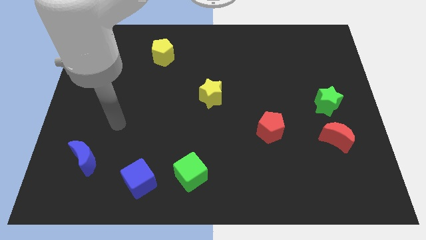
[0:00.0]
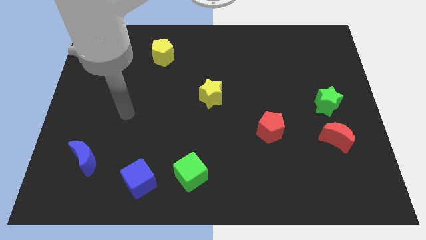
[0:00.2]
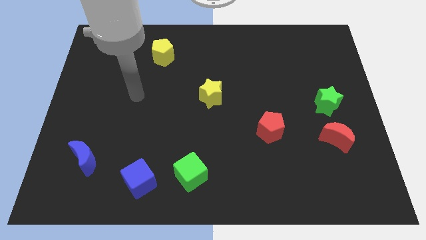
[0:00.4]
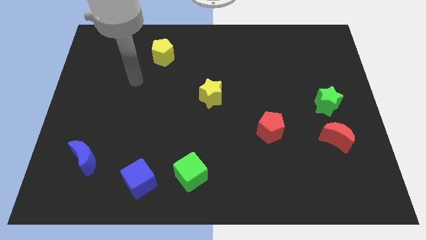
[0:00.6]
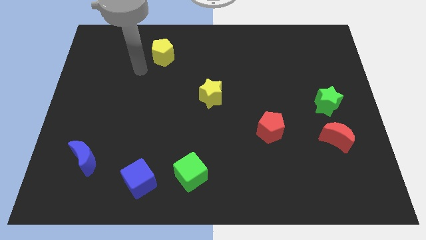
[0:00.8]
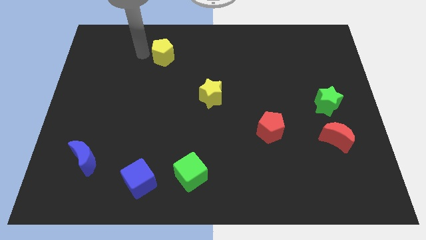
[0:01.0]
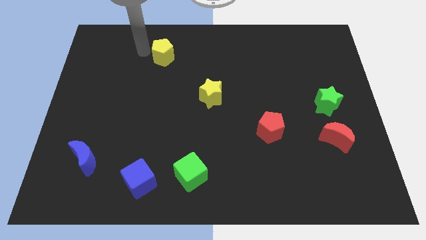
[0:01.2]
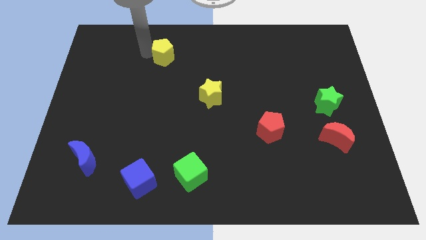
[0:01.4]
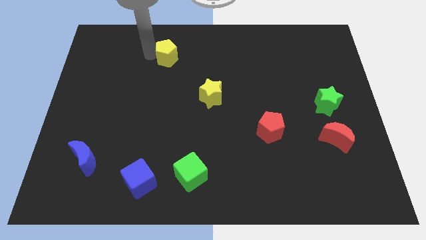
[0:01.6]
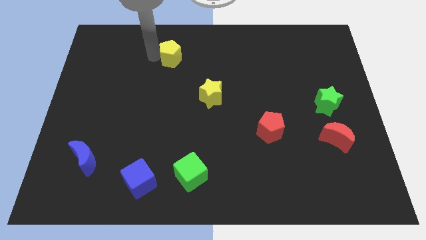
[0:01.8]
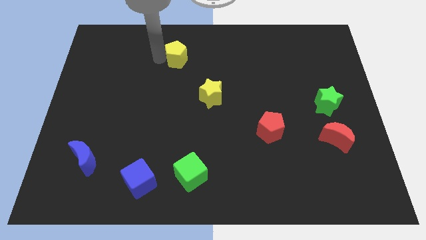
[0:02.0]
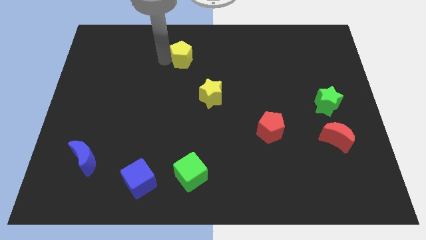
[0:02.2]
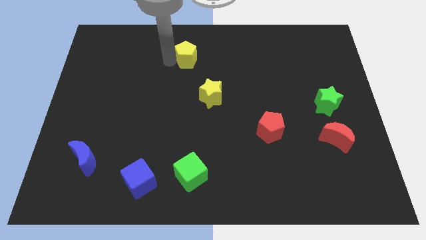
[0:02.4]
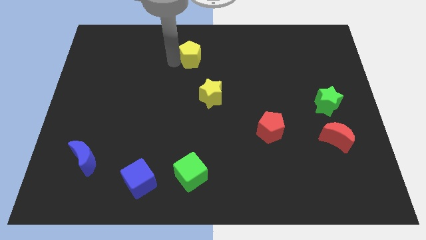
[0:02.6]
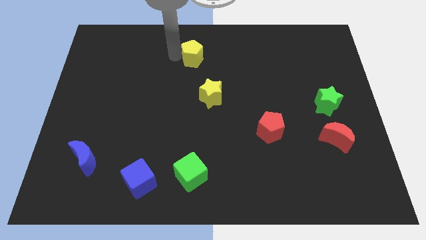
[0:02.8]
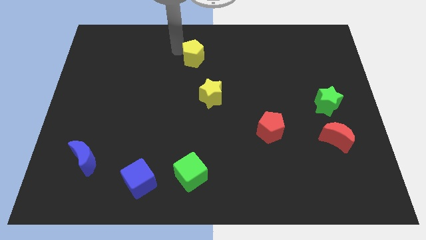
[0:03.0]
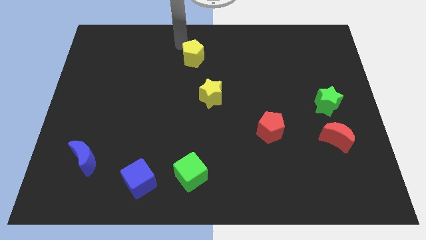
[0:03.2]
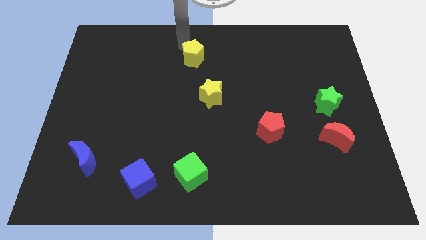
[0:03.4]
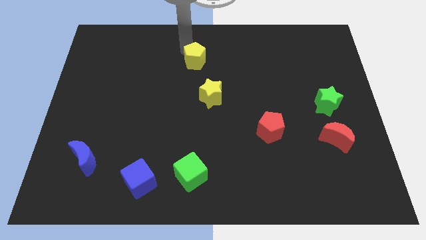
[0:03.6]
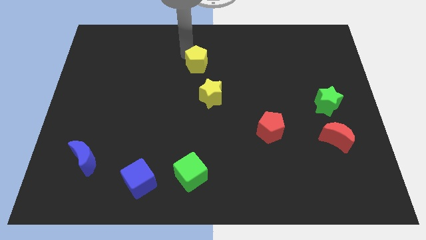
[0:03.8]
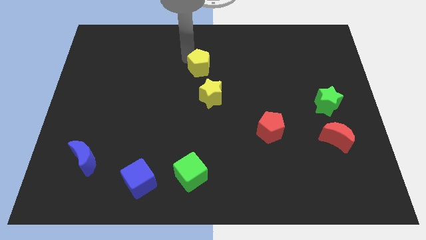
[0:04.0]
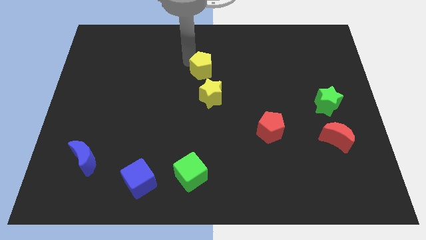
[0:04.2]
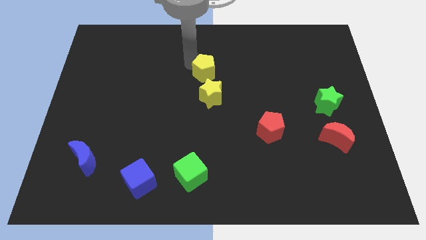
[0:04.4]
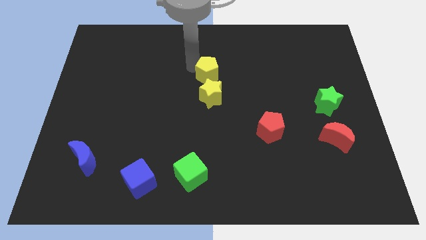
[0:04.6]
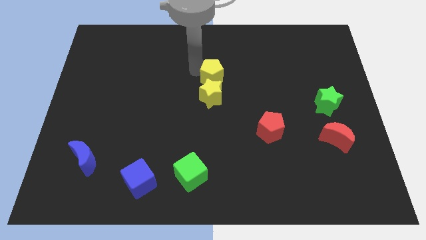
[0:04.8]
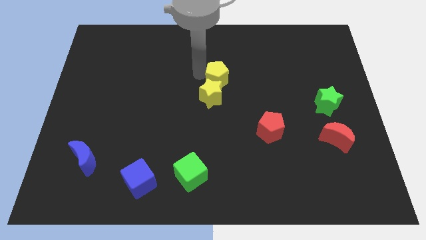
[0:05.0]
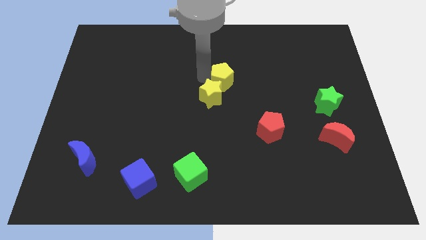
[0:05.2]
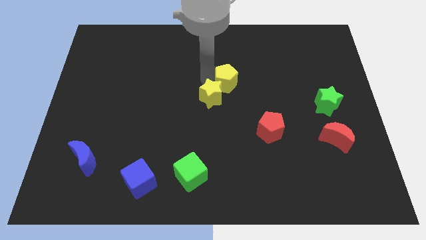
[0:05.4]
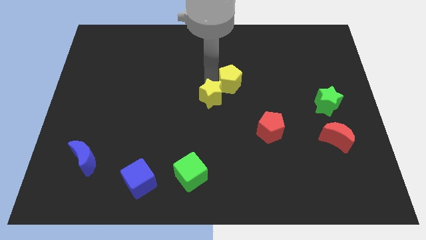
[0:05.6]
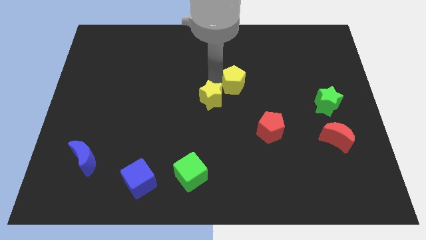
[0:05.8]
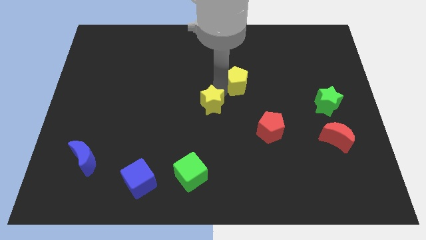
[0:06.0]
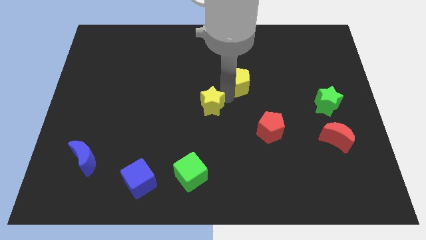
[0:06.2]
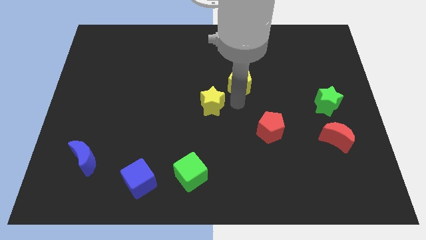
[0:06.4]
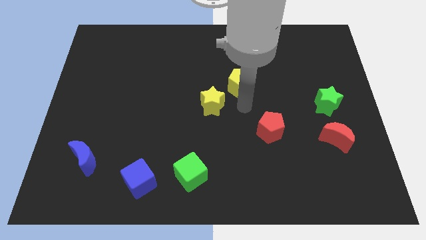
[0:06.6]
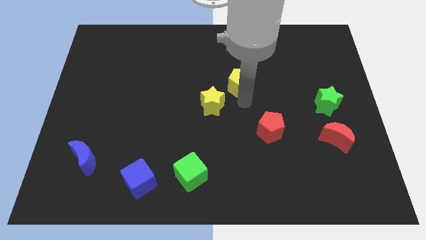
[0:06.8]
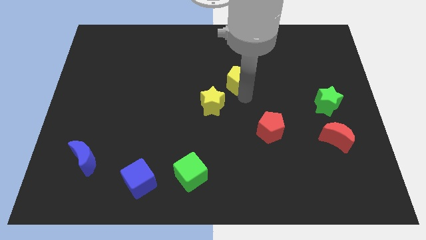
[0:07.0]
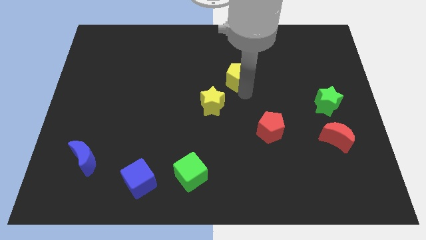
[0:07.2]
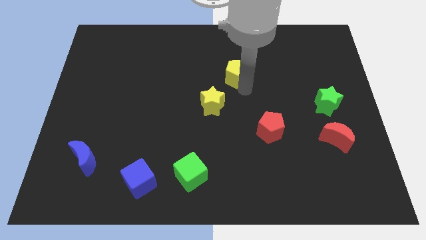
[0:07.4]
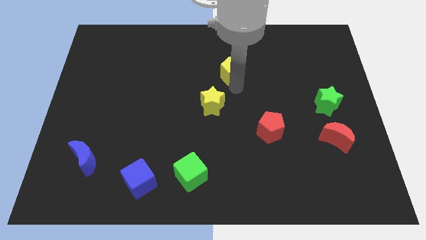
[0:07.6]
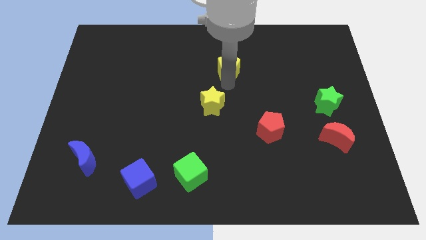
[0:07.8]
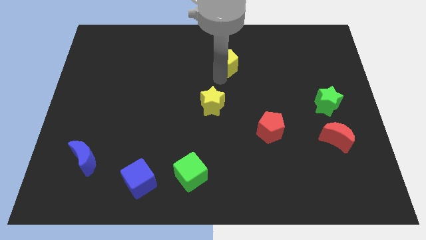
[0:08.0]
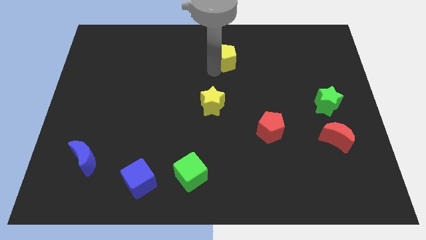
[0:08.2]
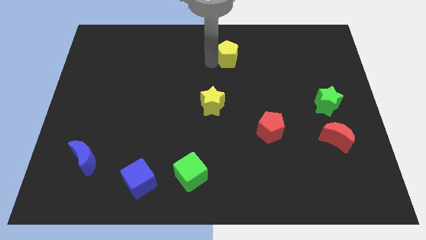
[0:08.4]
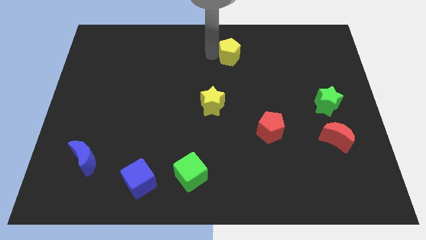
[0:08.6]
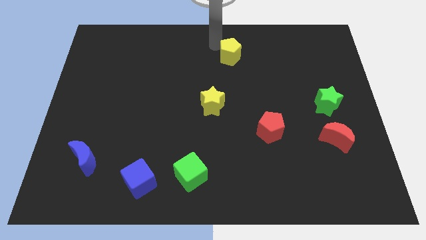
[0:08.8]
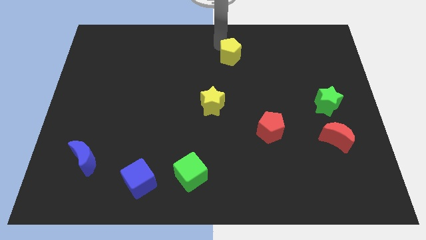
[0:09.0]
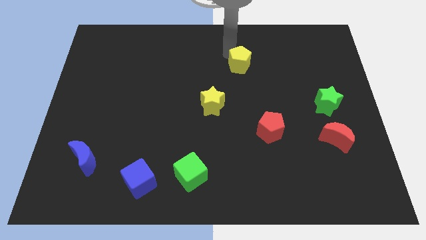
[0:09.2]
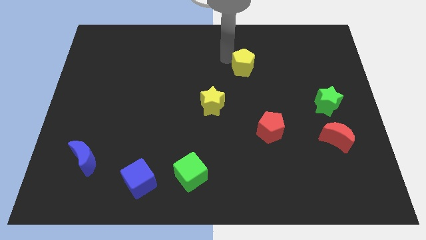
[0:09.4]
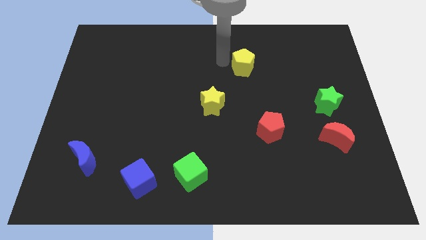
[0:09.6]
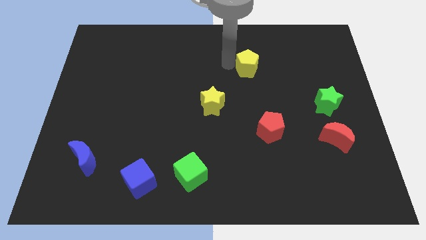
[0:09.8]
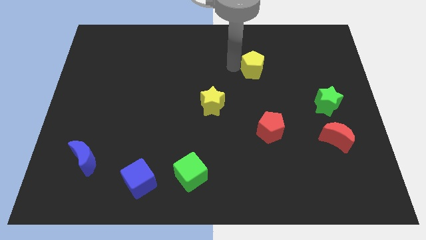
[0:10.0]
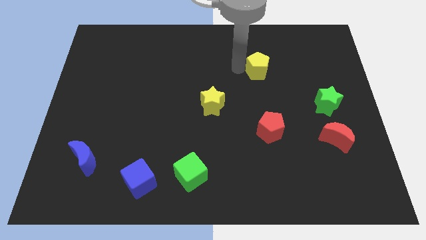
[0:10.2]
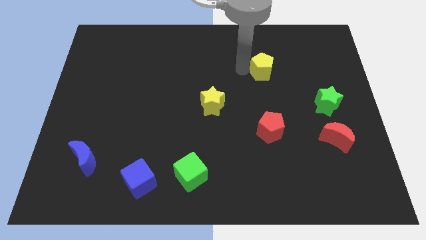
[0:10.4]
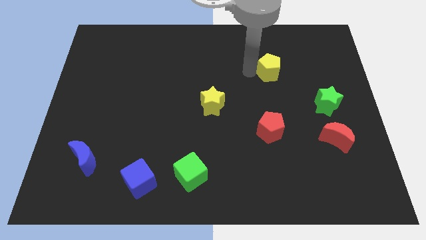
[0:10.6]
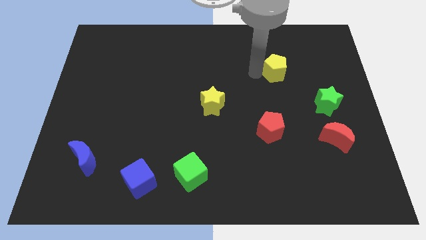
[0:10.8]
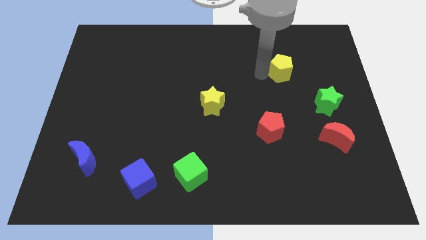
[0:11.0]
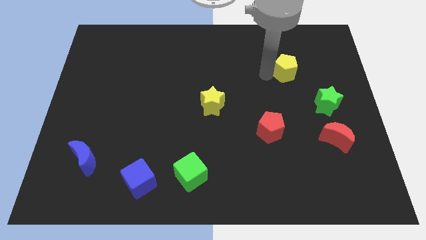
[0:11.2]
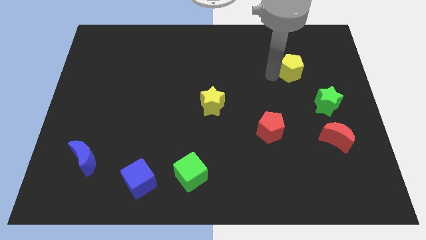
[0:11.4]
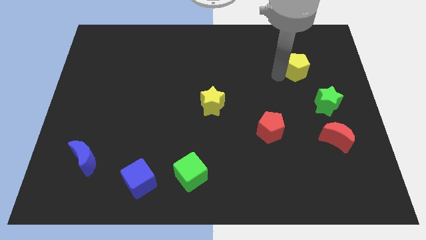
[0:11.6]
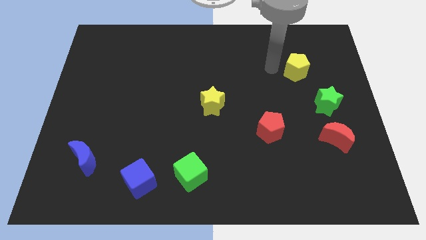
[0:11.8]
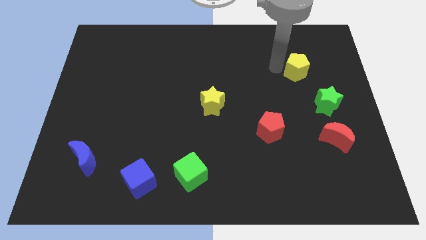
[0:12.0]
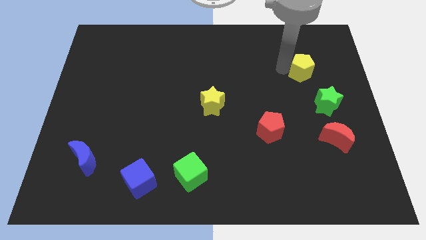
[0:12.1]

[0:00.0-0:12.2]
move the yellow pentagon above the green star

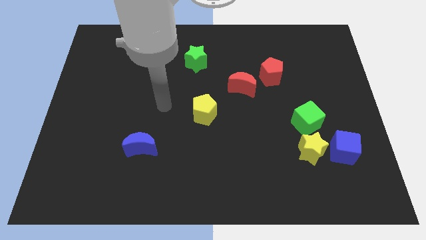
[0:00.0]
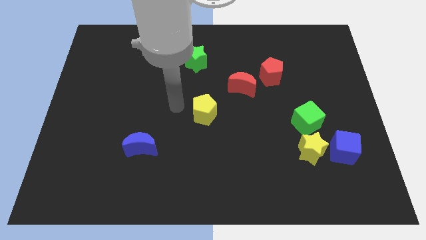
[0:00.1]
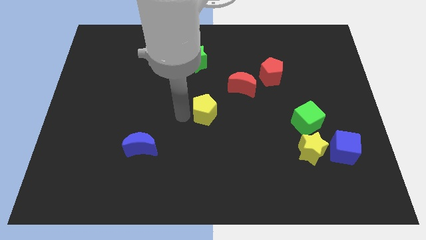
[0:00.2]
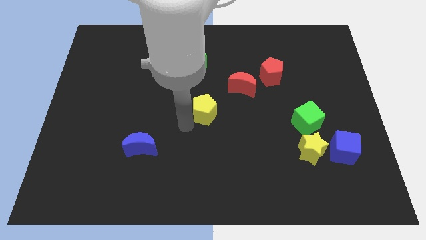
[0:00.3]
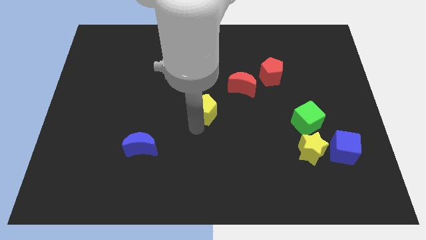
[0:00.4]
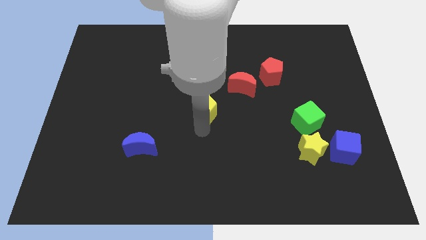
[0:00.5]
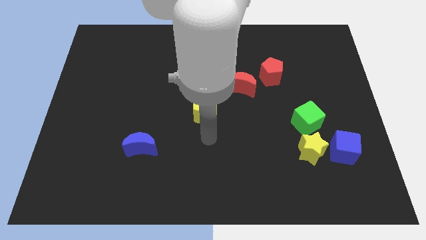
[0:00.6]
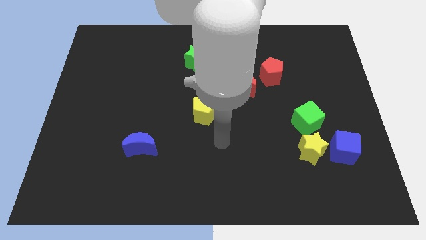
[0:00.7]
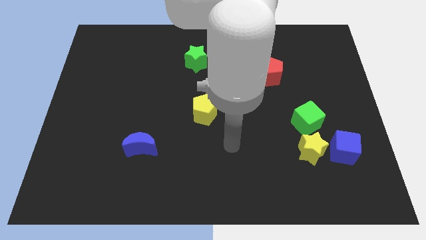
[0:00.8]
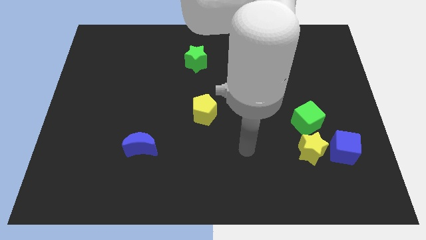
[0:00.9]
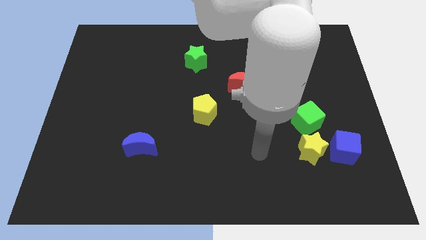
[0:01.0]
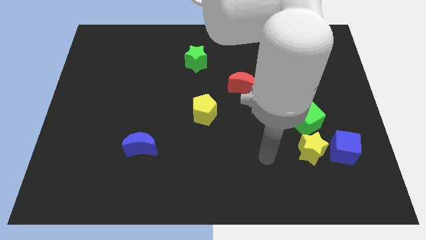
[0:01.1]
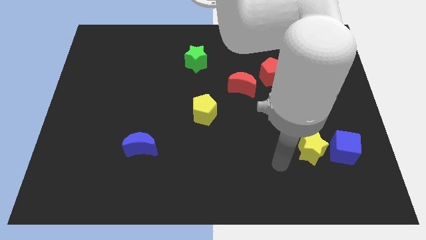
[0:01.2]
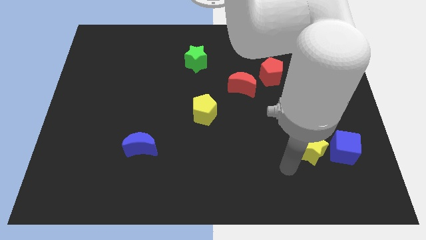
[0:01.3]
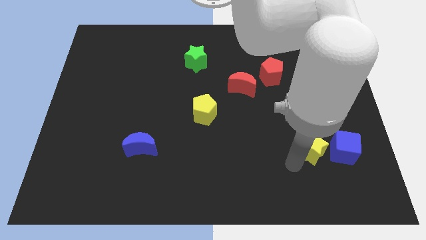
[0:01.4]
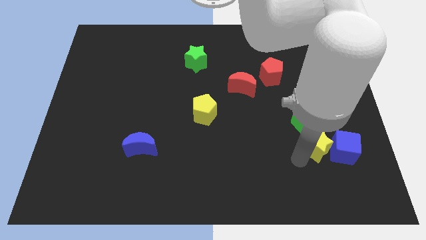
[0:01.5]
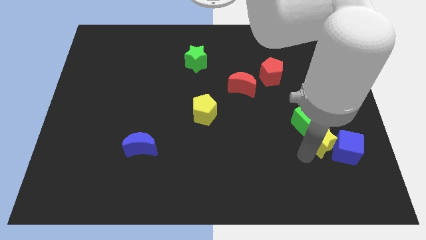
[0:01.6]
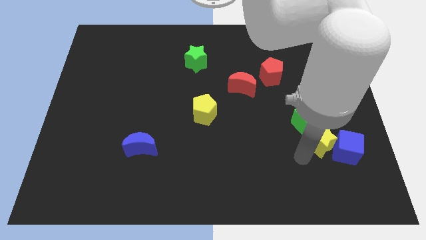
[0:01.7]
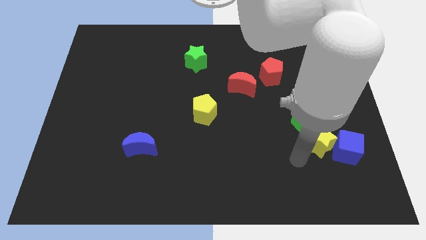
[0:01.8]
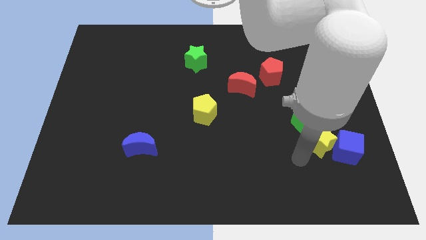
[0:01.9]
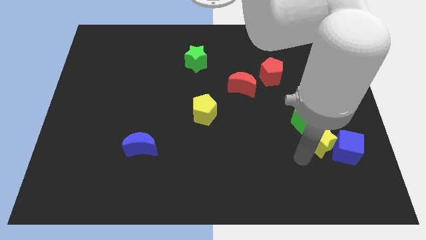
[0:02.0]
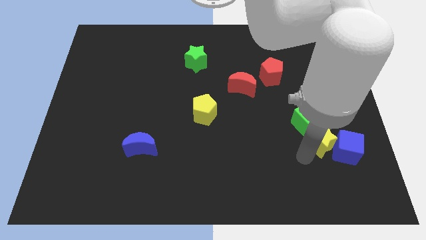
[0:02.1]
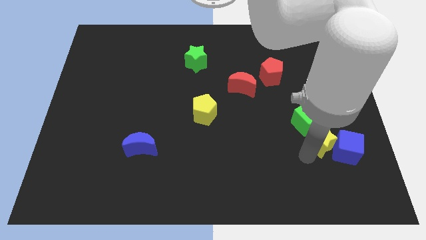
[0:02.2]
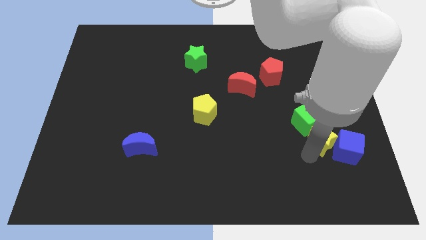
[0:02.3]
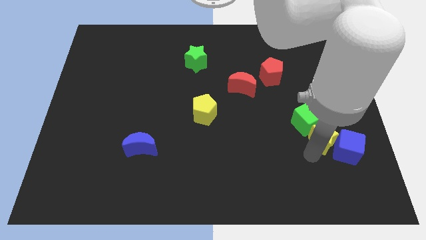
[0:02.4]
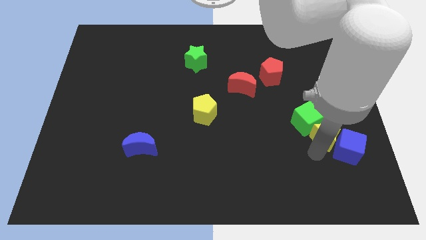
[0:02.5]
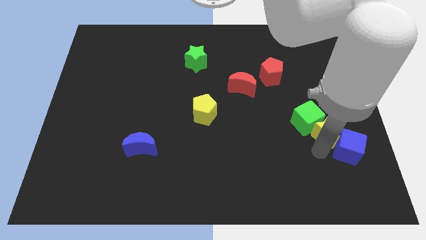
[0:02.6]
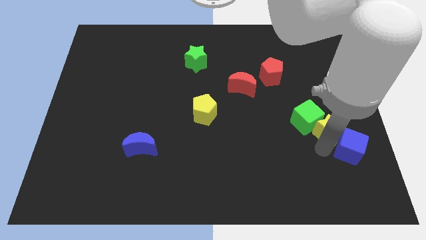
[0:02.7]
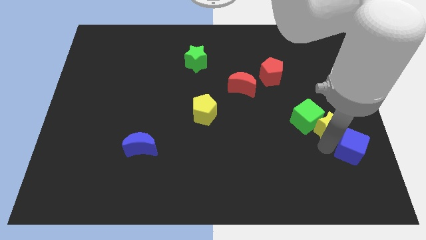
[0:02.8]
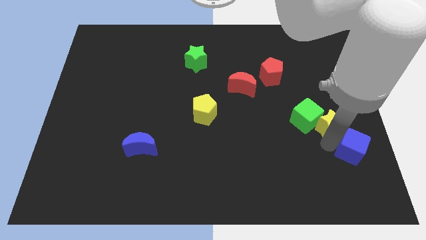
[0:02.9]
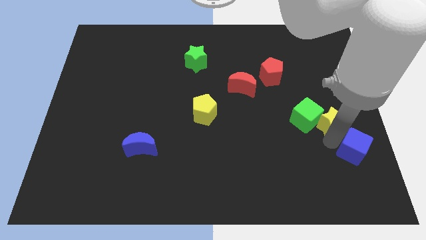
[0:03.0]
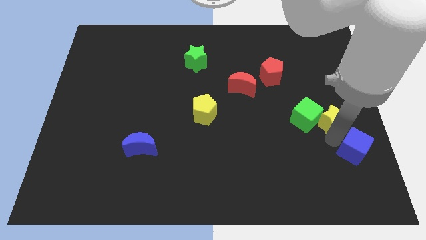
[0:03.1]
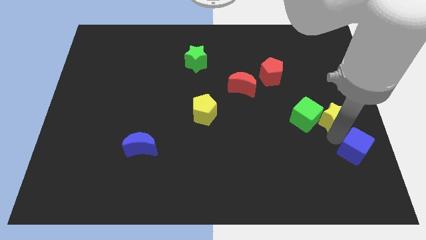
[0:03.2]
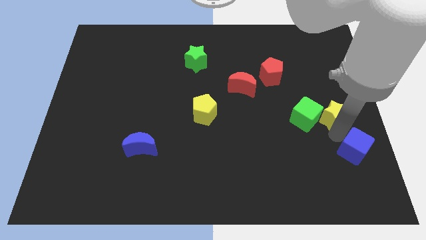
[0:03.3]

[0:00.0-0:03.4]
move the yellow star to the top right side of the green cube
